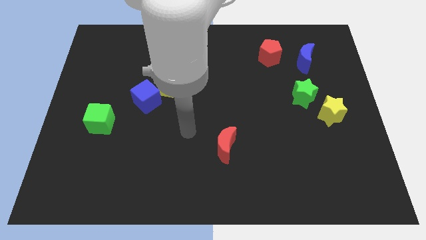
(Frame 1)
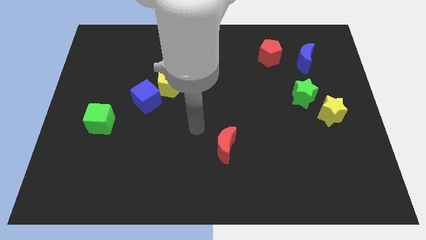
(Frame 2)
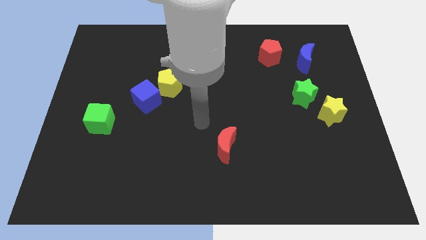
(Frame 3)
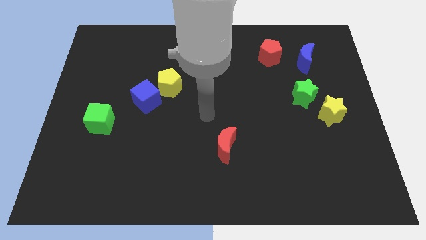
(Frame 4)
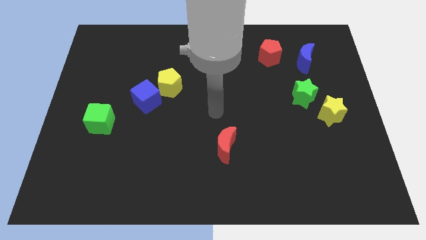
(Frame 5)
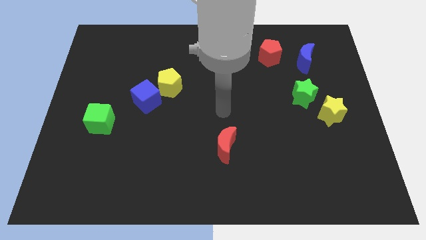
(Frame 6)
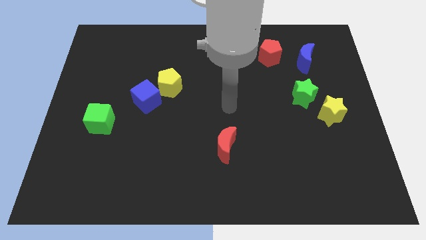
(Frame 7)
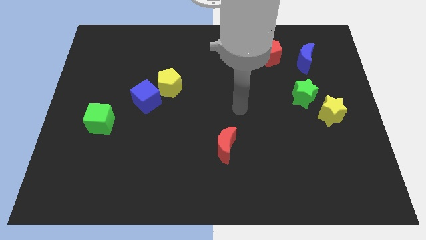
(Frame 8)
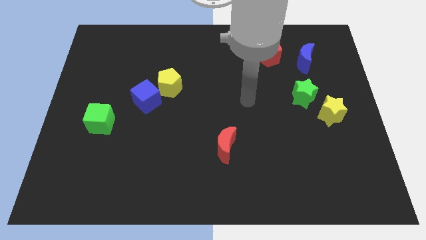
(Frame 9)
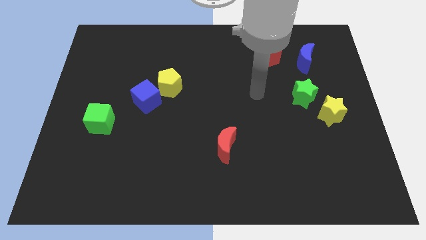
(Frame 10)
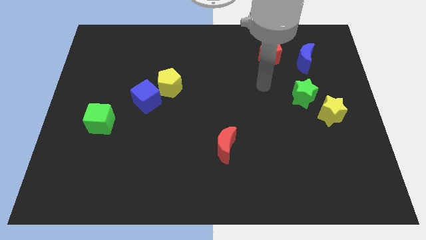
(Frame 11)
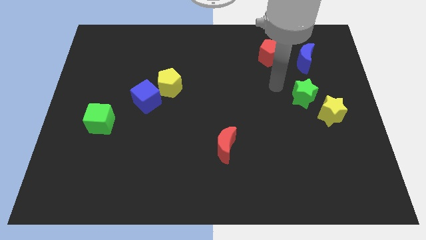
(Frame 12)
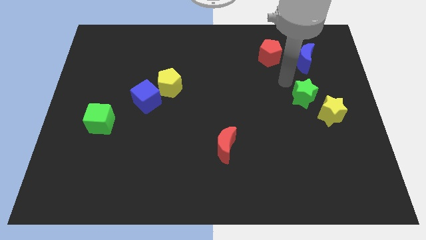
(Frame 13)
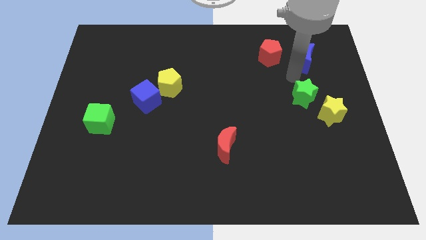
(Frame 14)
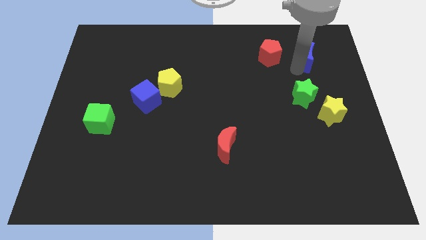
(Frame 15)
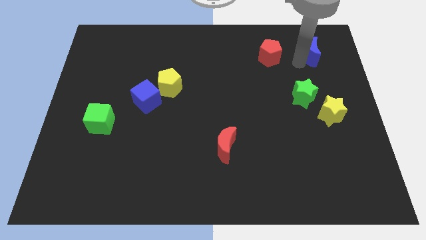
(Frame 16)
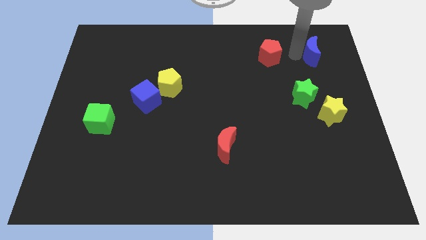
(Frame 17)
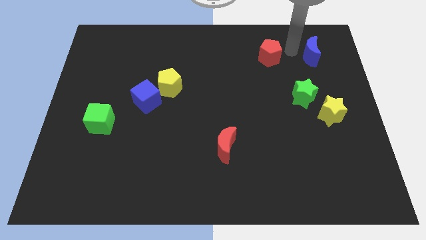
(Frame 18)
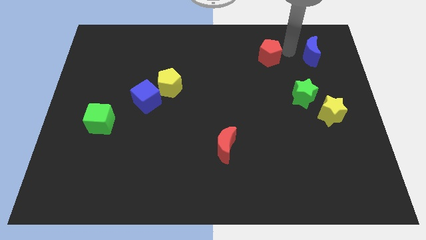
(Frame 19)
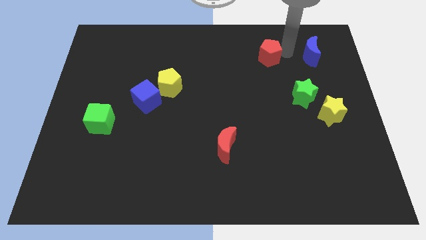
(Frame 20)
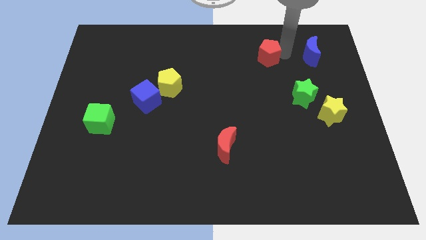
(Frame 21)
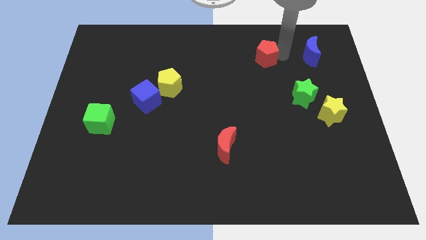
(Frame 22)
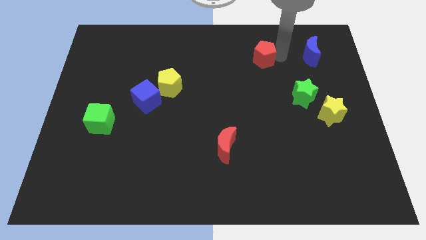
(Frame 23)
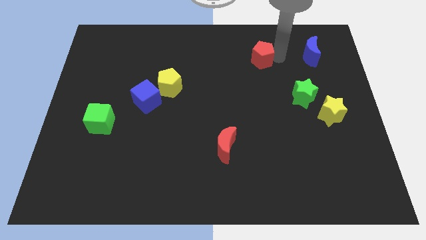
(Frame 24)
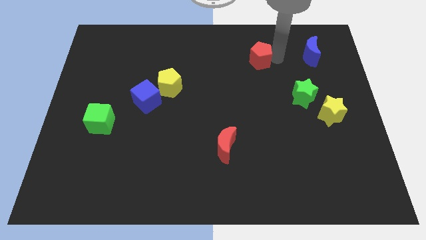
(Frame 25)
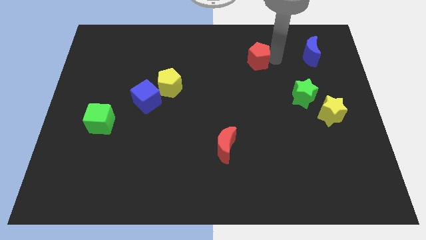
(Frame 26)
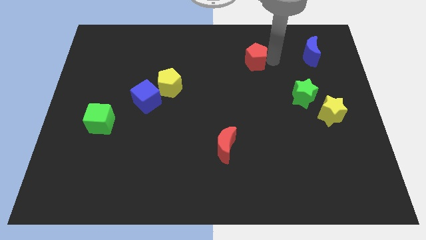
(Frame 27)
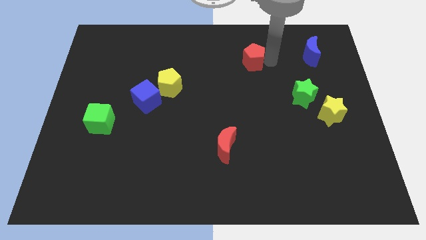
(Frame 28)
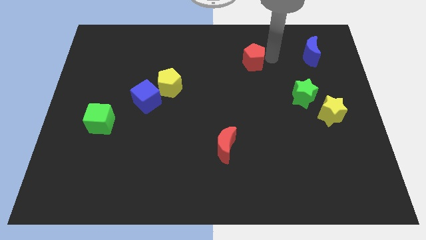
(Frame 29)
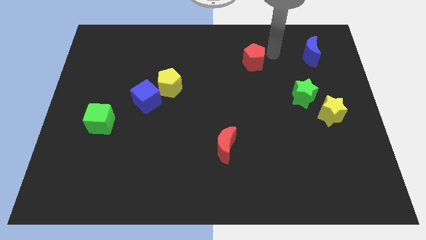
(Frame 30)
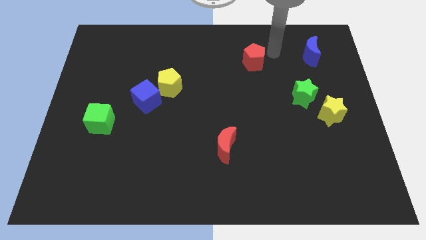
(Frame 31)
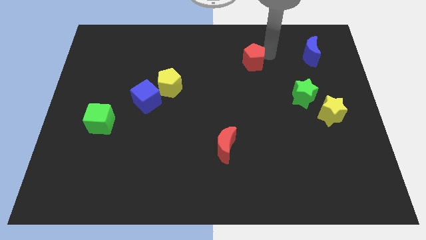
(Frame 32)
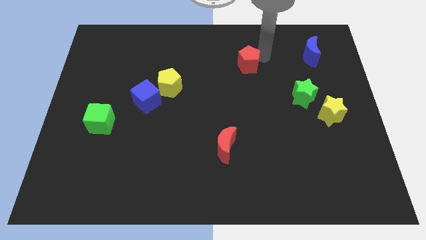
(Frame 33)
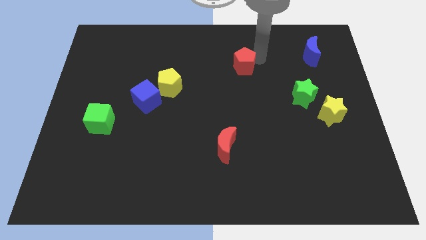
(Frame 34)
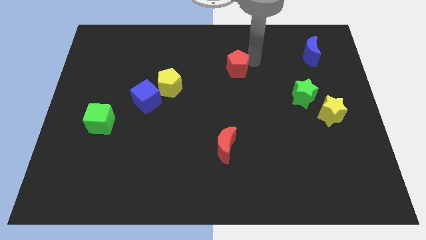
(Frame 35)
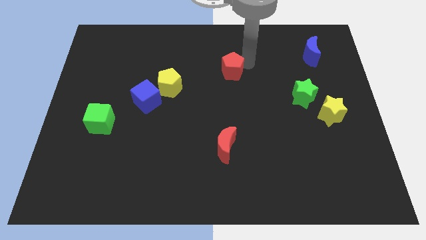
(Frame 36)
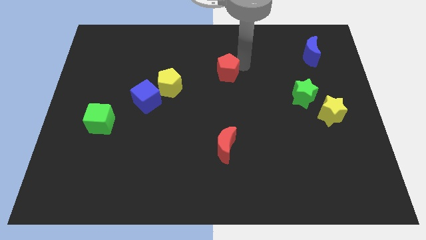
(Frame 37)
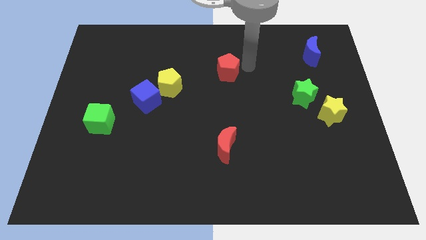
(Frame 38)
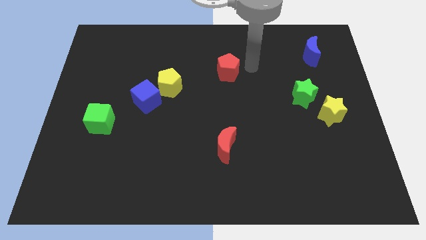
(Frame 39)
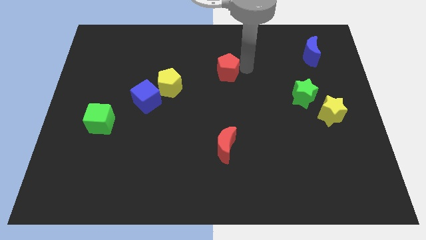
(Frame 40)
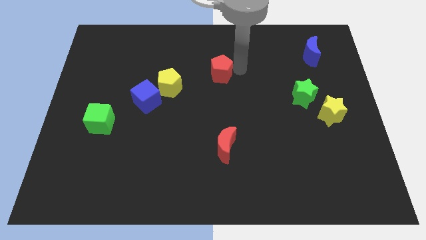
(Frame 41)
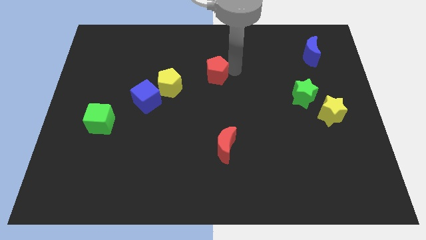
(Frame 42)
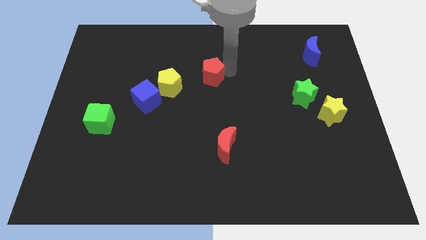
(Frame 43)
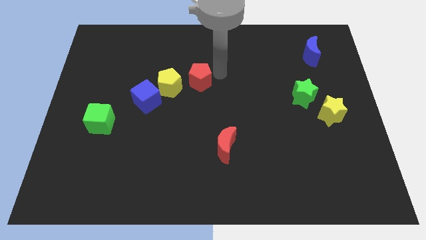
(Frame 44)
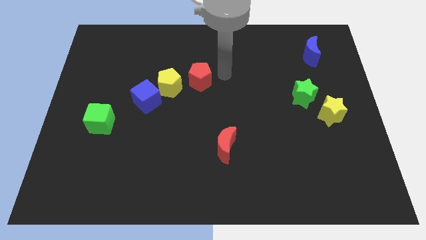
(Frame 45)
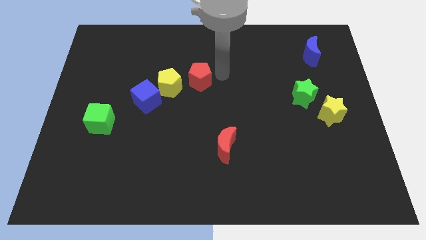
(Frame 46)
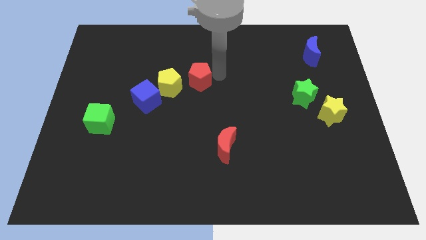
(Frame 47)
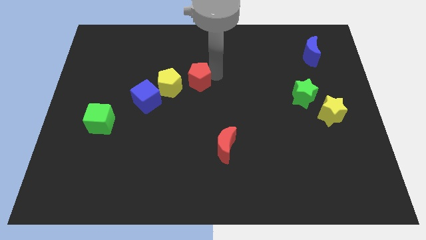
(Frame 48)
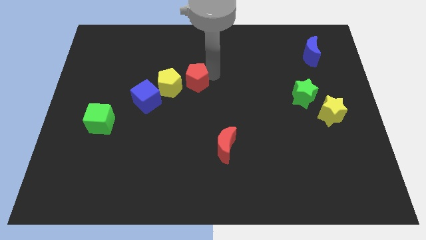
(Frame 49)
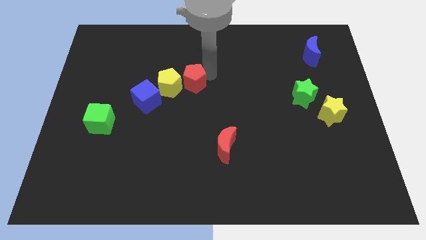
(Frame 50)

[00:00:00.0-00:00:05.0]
put the red pentagon to the yellow pentagon

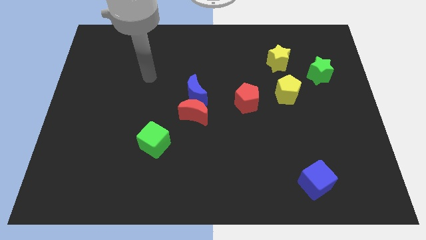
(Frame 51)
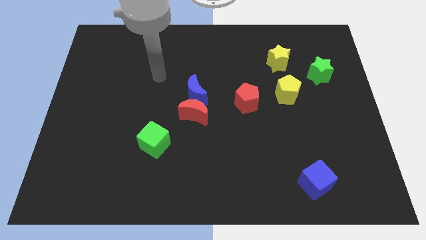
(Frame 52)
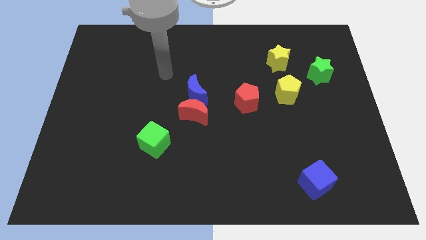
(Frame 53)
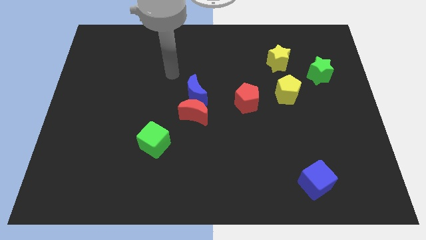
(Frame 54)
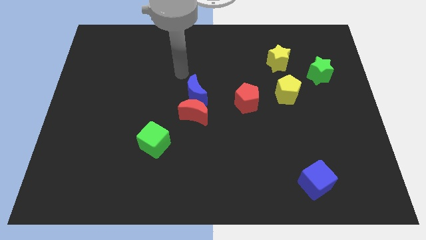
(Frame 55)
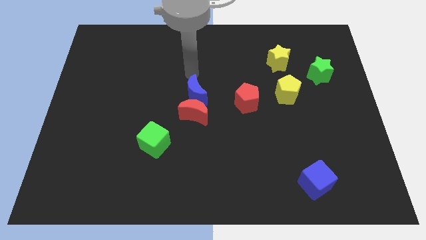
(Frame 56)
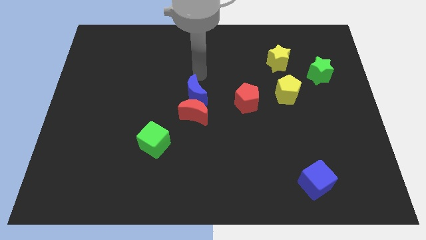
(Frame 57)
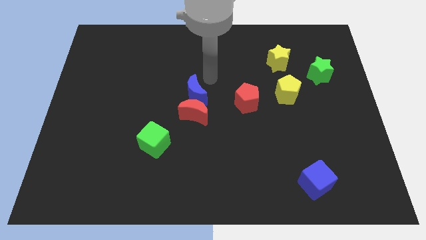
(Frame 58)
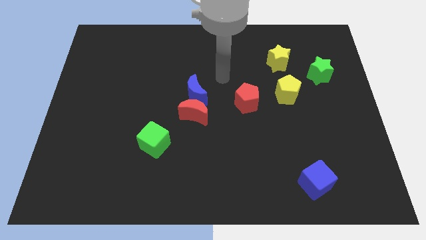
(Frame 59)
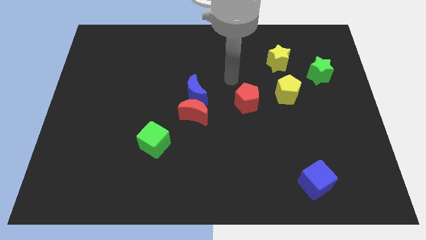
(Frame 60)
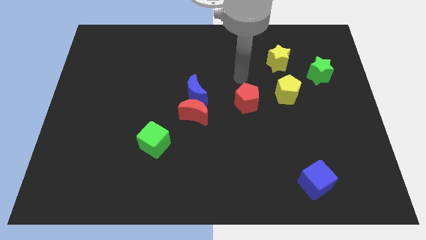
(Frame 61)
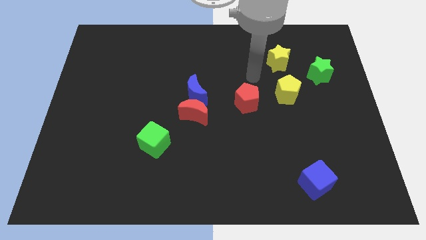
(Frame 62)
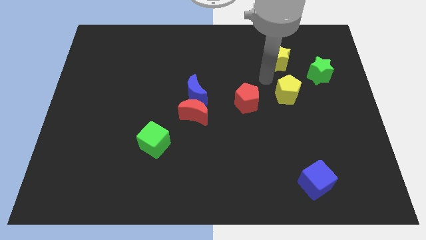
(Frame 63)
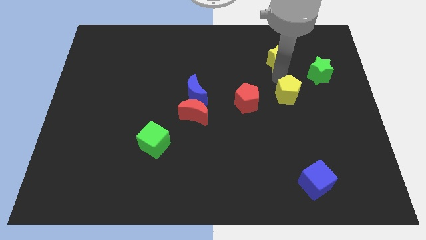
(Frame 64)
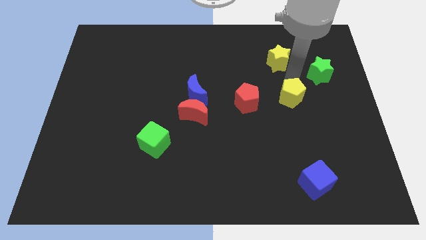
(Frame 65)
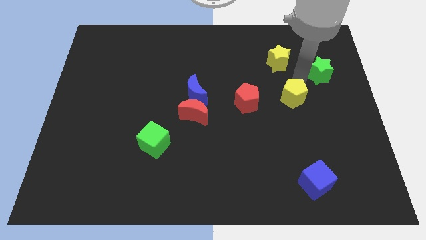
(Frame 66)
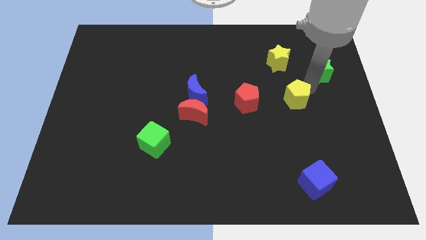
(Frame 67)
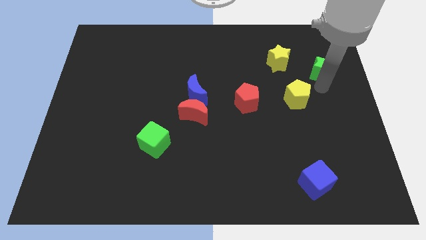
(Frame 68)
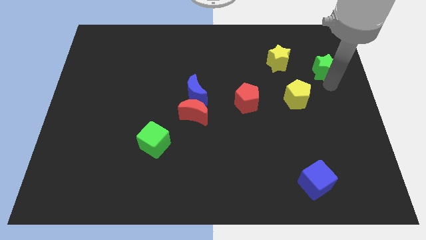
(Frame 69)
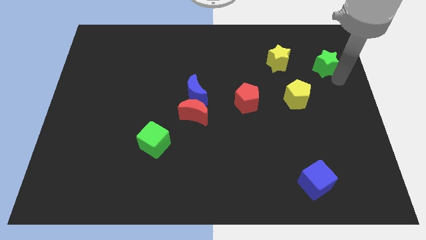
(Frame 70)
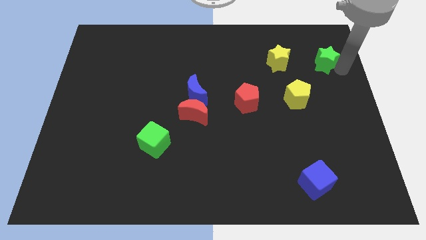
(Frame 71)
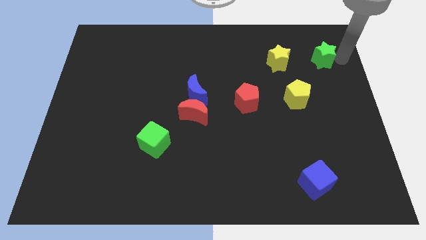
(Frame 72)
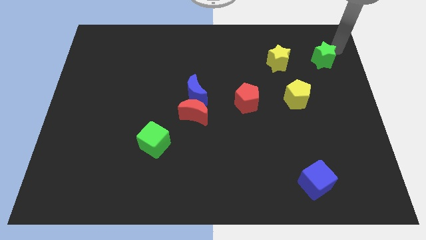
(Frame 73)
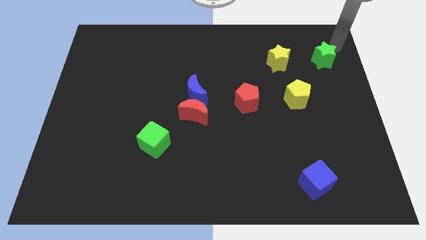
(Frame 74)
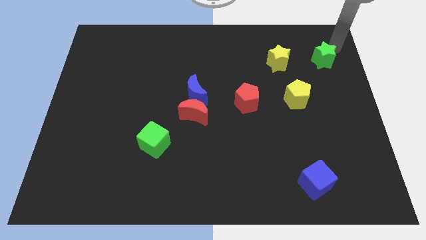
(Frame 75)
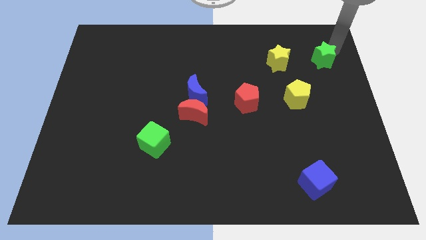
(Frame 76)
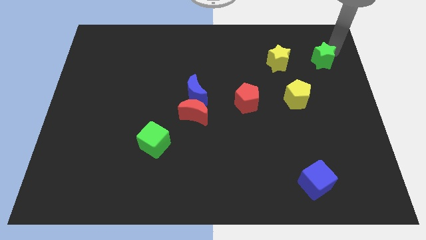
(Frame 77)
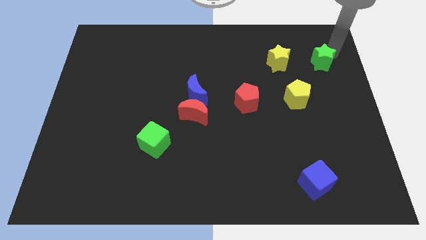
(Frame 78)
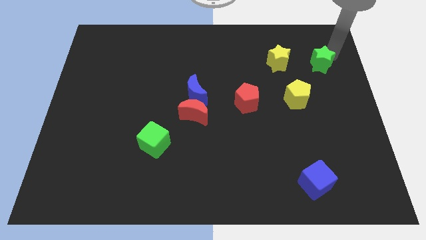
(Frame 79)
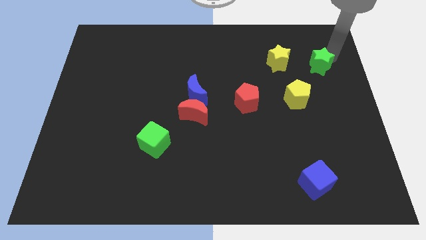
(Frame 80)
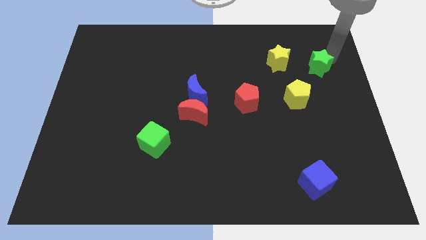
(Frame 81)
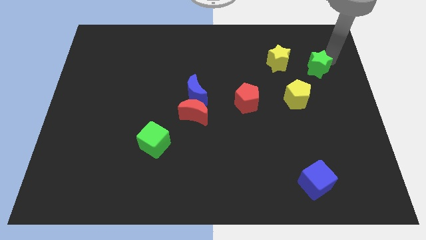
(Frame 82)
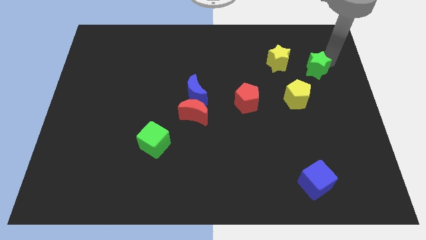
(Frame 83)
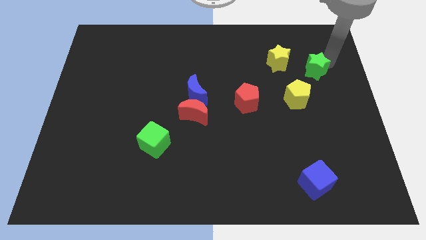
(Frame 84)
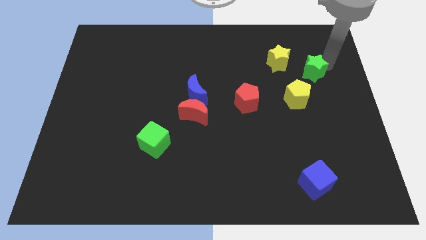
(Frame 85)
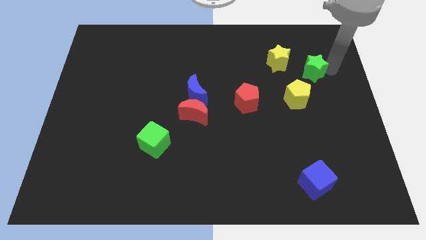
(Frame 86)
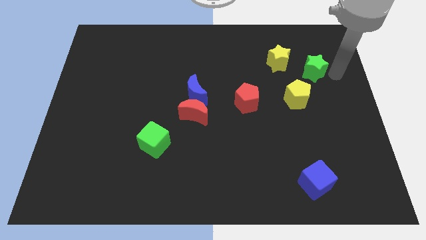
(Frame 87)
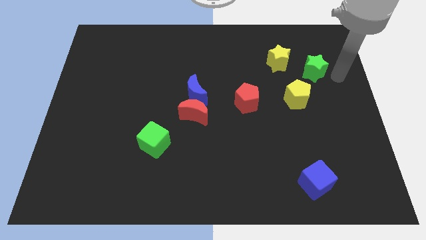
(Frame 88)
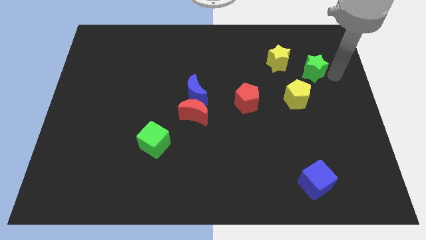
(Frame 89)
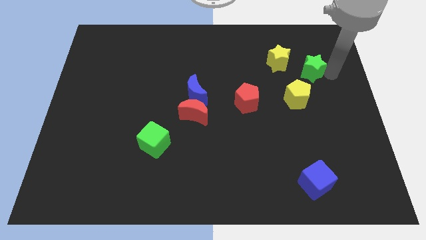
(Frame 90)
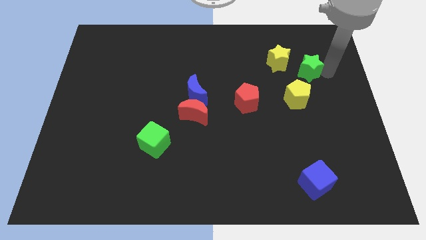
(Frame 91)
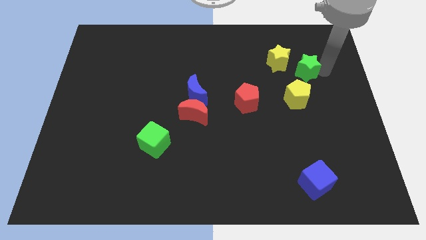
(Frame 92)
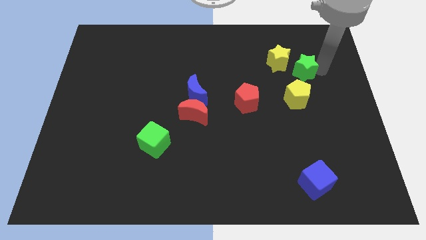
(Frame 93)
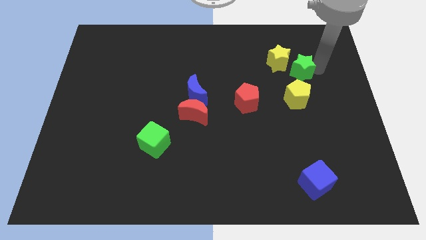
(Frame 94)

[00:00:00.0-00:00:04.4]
move the green star to the yellow star
